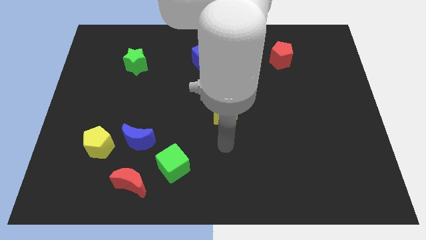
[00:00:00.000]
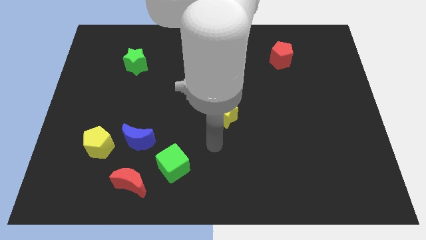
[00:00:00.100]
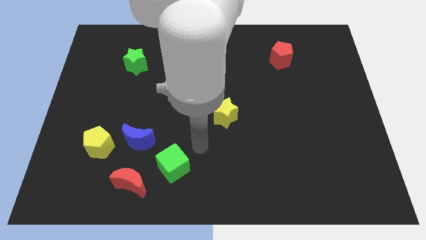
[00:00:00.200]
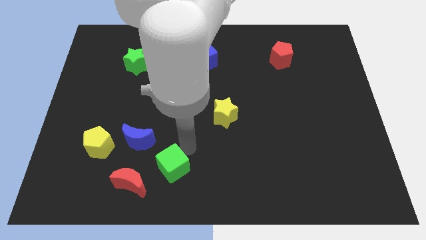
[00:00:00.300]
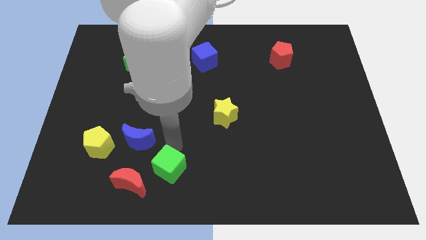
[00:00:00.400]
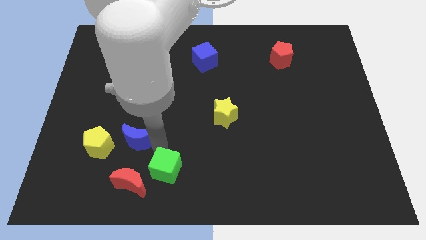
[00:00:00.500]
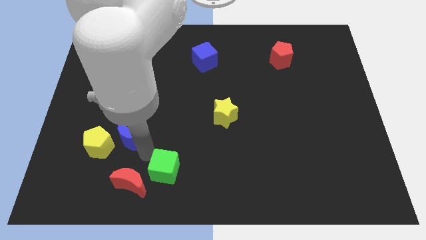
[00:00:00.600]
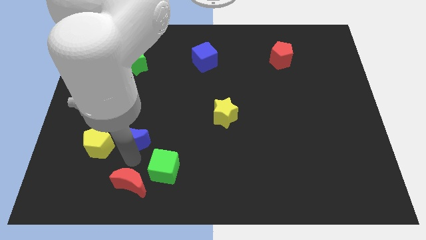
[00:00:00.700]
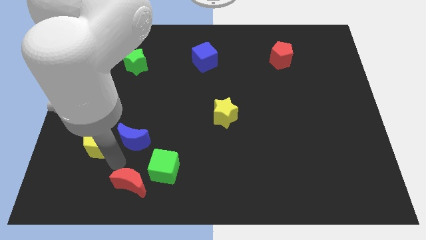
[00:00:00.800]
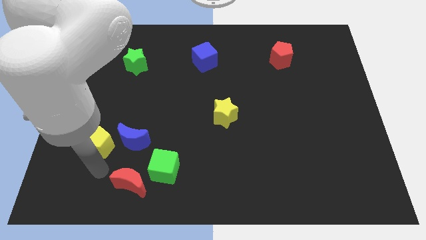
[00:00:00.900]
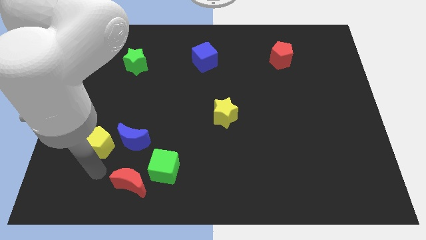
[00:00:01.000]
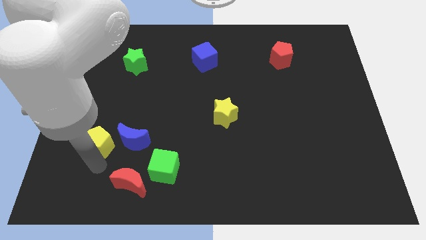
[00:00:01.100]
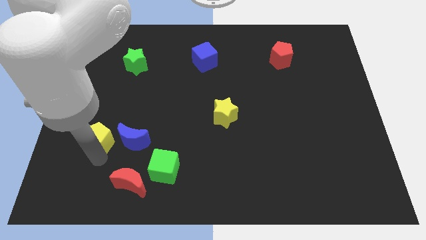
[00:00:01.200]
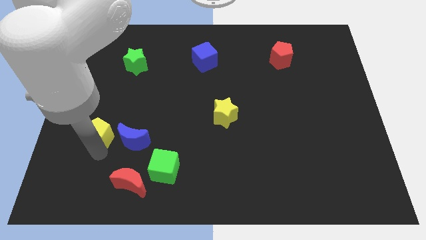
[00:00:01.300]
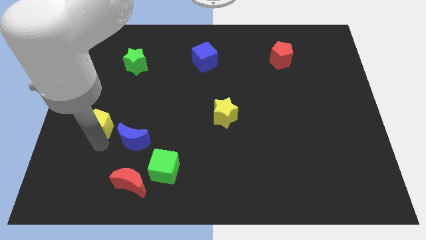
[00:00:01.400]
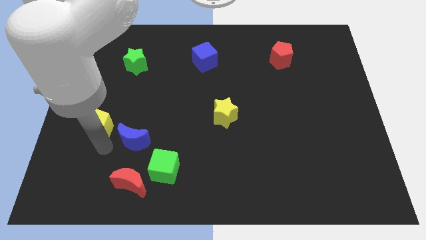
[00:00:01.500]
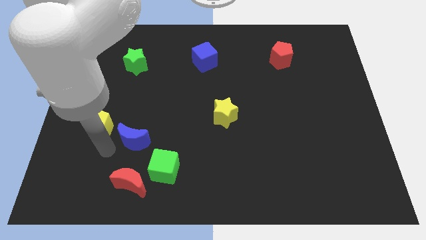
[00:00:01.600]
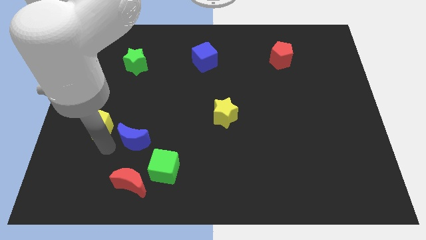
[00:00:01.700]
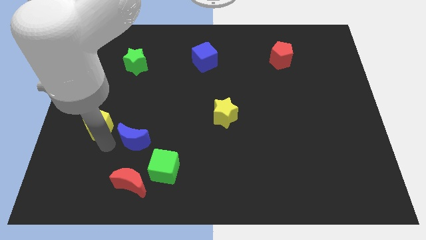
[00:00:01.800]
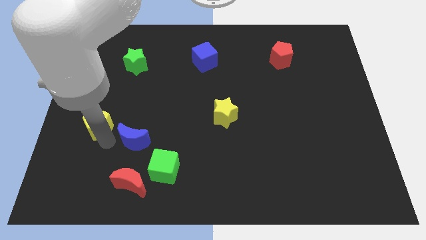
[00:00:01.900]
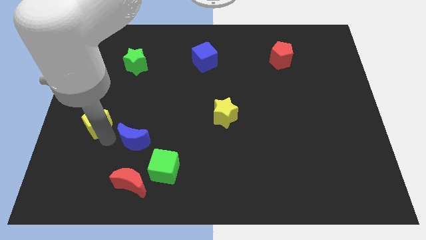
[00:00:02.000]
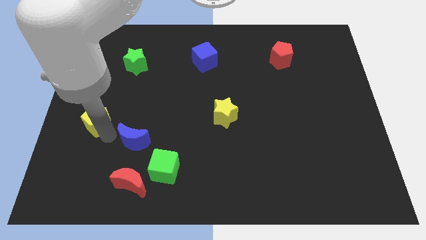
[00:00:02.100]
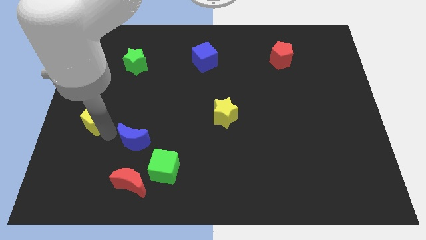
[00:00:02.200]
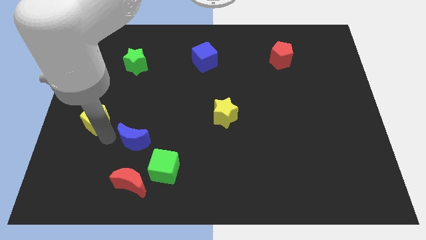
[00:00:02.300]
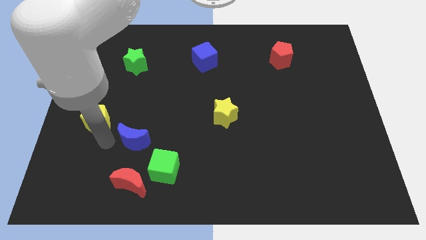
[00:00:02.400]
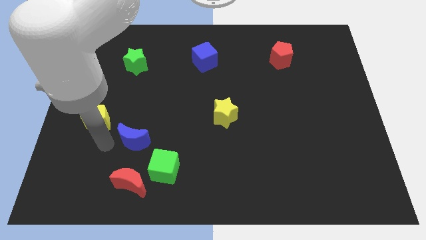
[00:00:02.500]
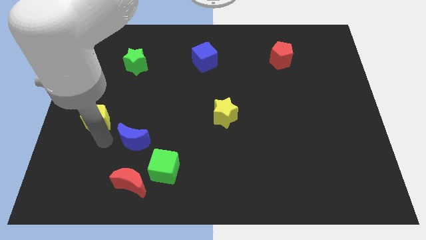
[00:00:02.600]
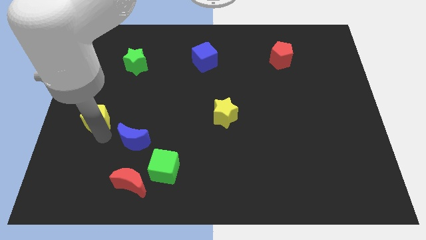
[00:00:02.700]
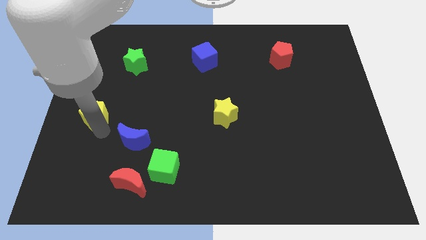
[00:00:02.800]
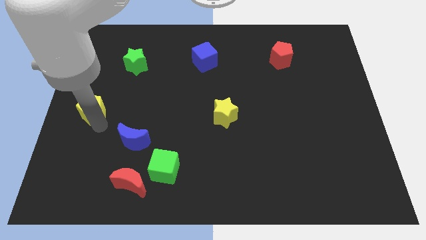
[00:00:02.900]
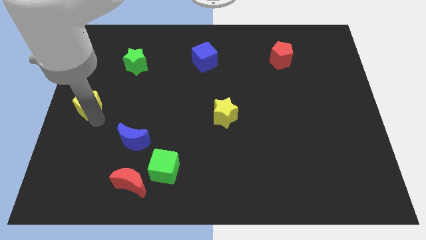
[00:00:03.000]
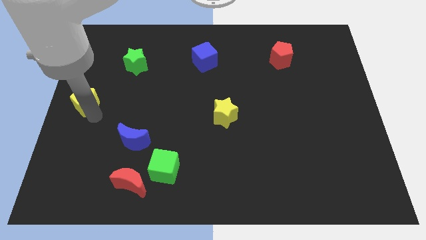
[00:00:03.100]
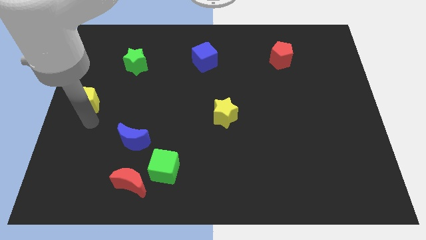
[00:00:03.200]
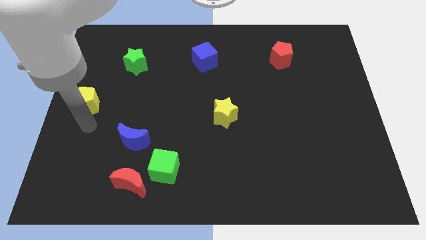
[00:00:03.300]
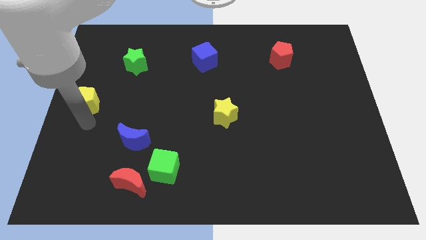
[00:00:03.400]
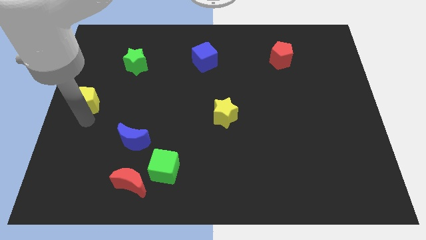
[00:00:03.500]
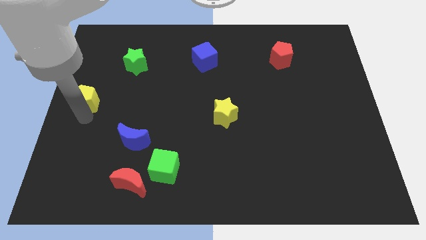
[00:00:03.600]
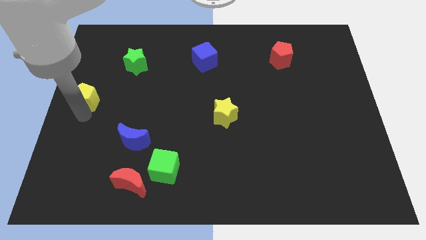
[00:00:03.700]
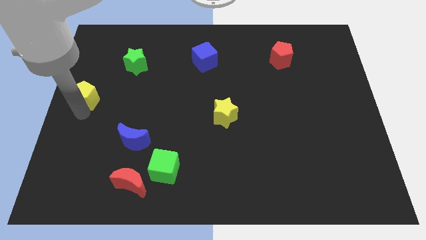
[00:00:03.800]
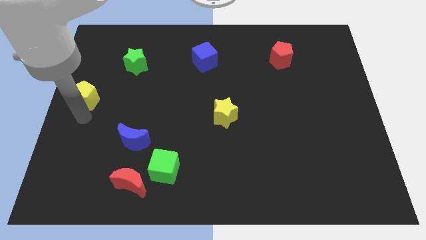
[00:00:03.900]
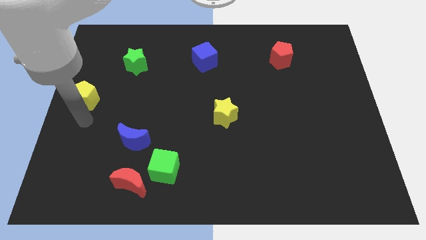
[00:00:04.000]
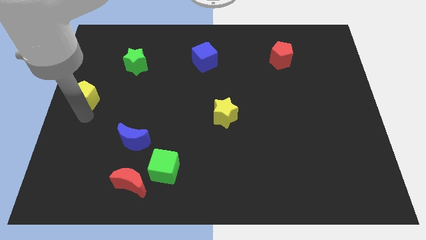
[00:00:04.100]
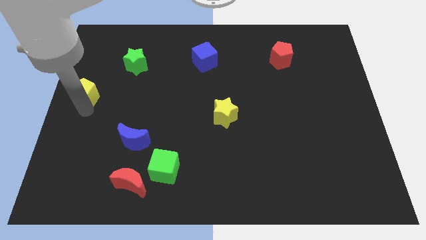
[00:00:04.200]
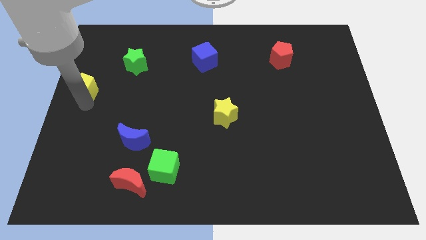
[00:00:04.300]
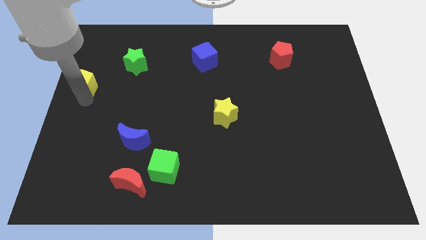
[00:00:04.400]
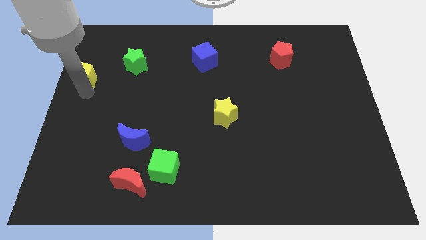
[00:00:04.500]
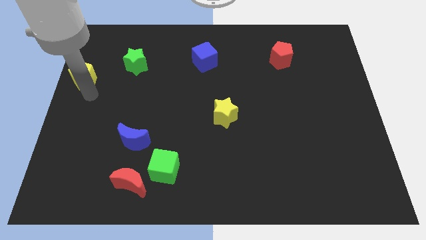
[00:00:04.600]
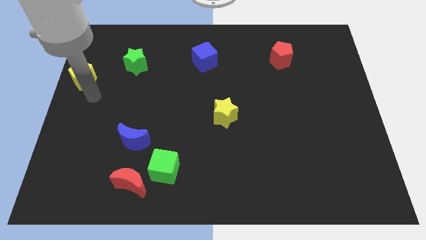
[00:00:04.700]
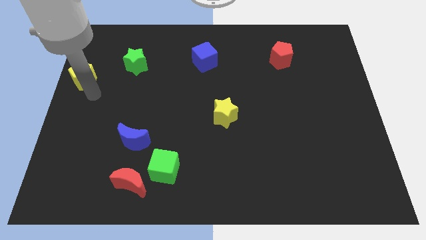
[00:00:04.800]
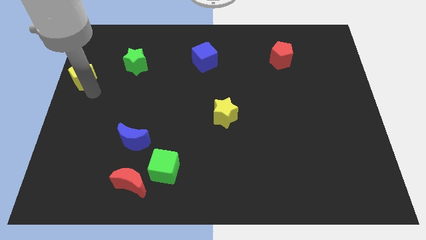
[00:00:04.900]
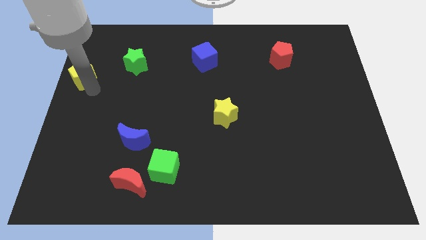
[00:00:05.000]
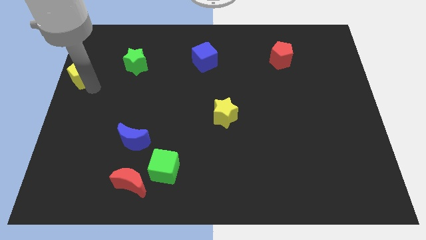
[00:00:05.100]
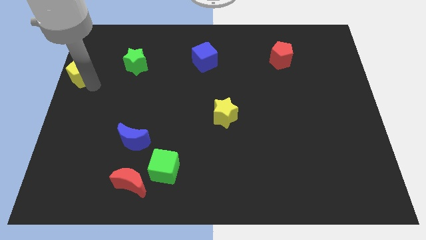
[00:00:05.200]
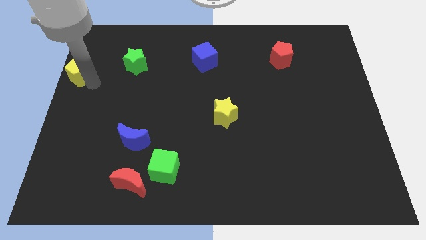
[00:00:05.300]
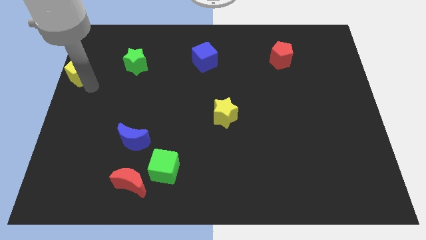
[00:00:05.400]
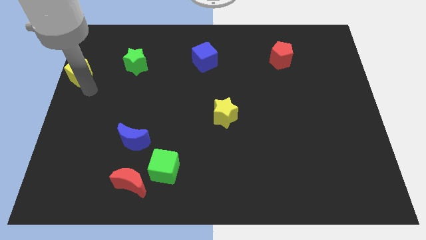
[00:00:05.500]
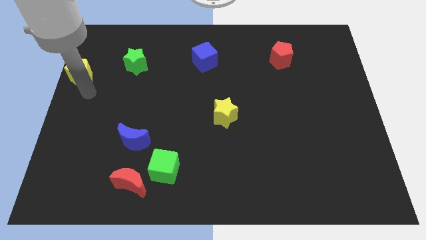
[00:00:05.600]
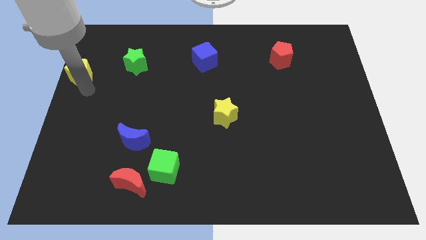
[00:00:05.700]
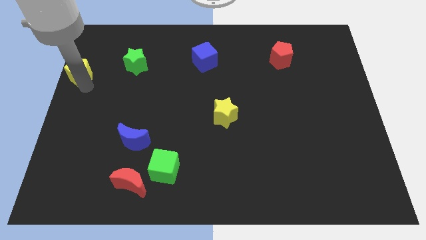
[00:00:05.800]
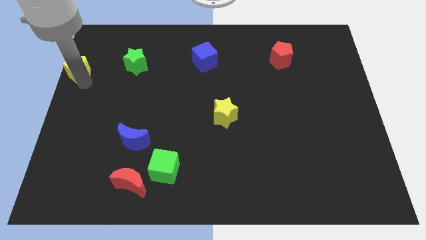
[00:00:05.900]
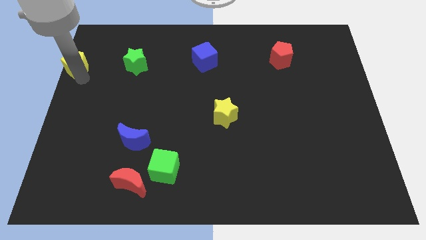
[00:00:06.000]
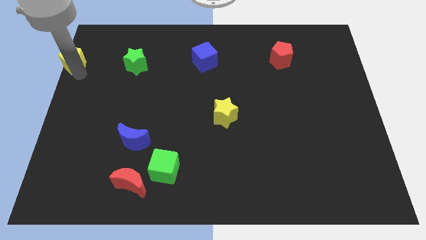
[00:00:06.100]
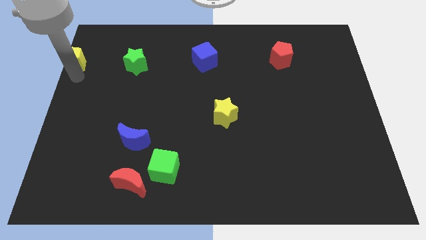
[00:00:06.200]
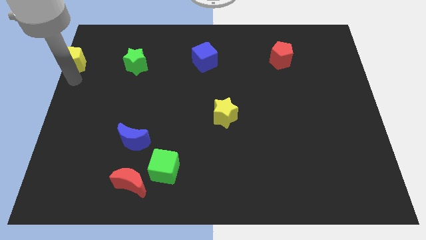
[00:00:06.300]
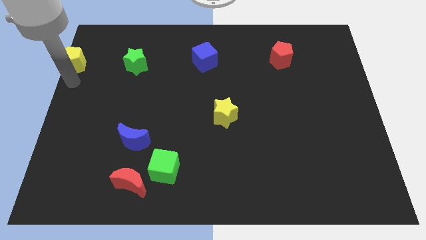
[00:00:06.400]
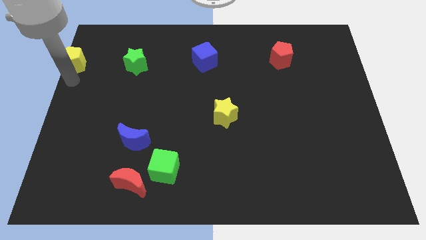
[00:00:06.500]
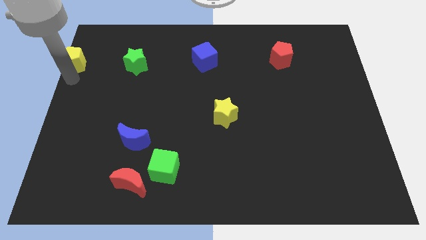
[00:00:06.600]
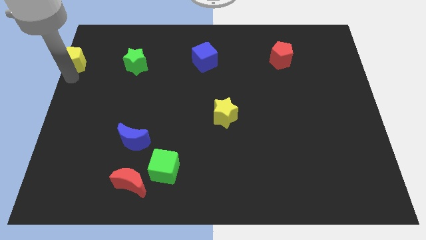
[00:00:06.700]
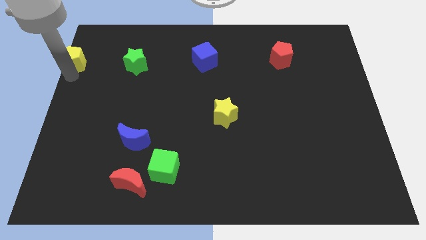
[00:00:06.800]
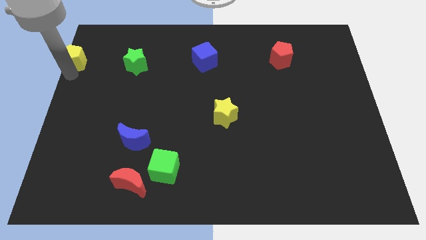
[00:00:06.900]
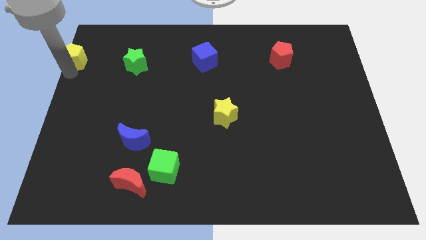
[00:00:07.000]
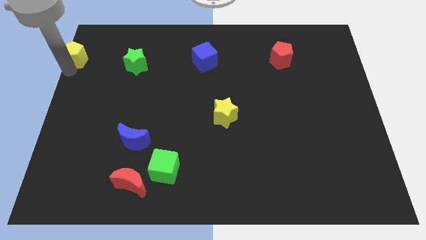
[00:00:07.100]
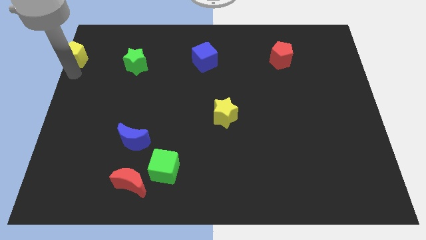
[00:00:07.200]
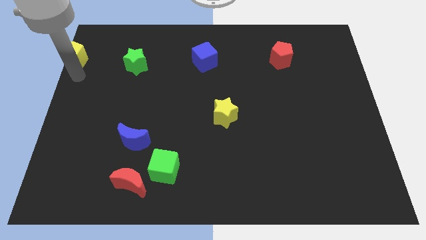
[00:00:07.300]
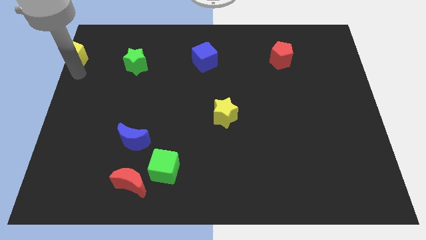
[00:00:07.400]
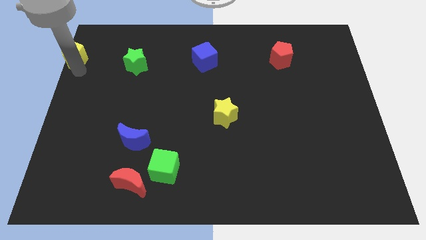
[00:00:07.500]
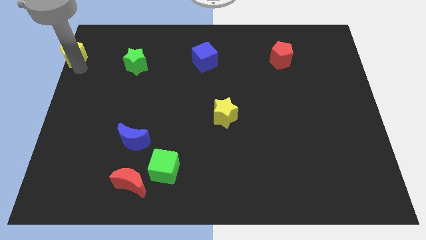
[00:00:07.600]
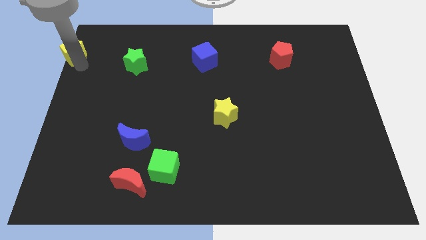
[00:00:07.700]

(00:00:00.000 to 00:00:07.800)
push the yellow pentagon to the top left of the board
